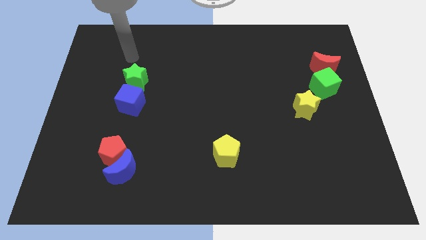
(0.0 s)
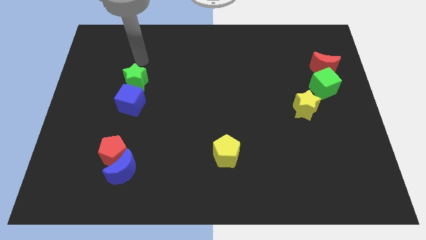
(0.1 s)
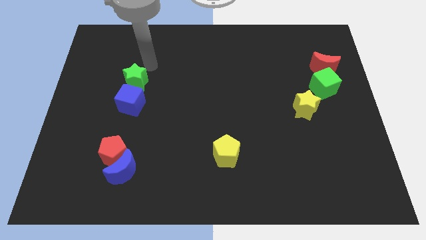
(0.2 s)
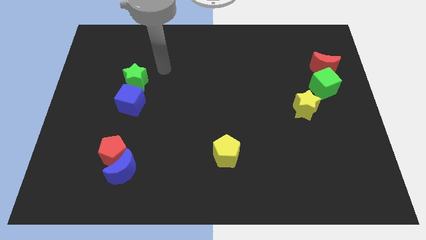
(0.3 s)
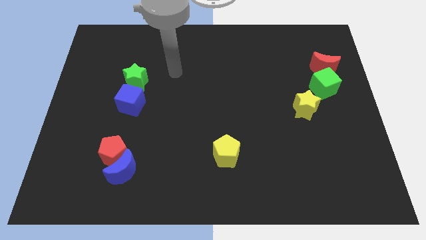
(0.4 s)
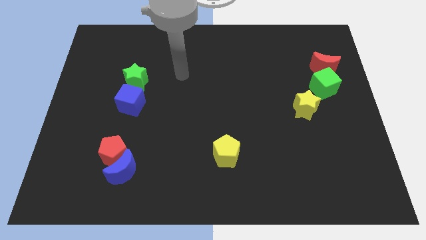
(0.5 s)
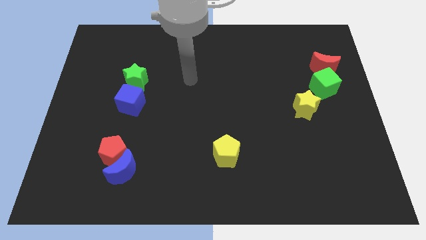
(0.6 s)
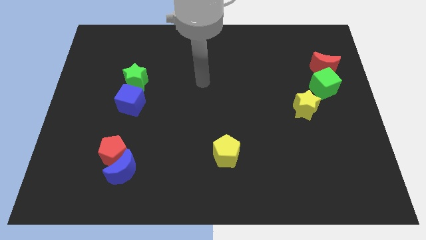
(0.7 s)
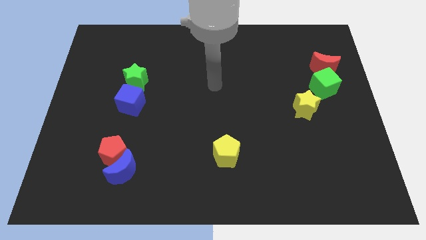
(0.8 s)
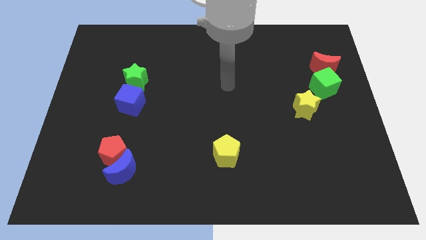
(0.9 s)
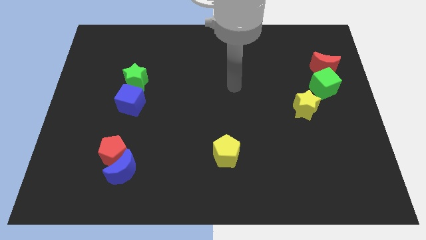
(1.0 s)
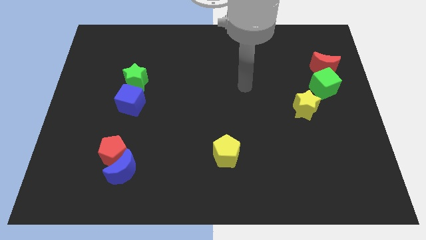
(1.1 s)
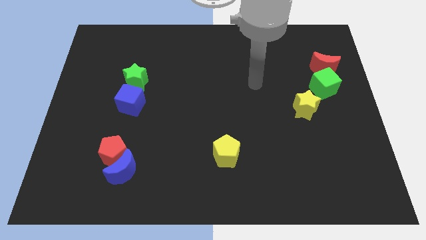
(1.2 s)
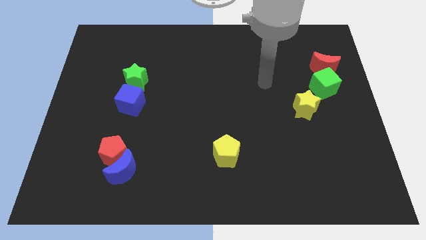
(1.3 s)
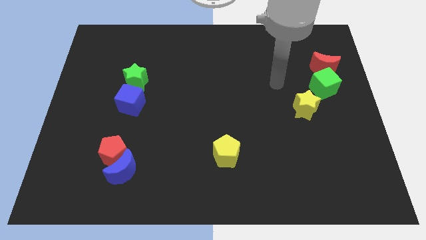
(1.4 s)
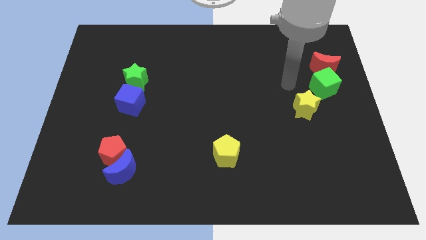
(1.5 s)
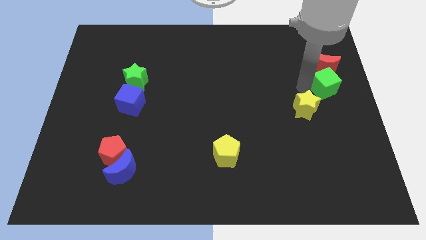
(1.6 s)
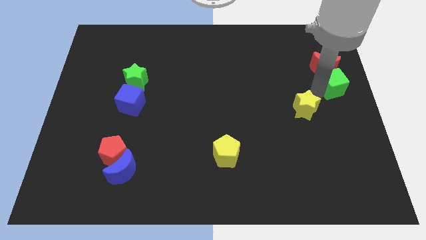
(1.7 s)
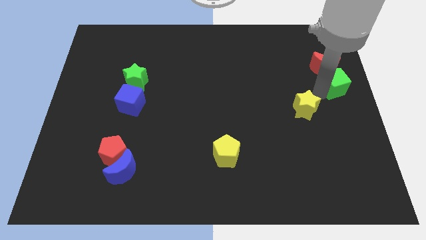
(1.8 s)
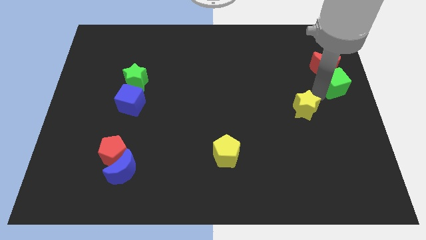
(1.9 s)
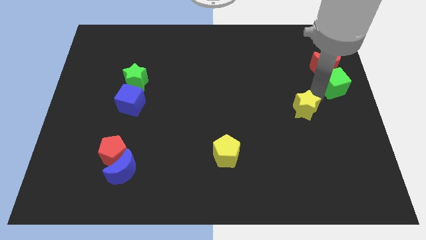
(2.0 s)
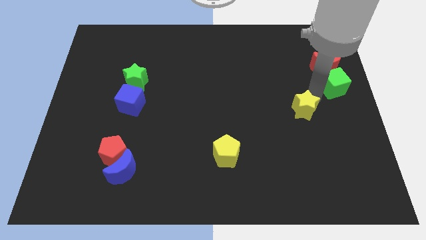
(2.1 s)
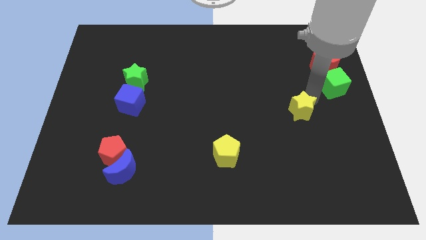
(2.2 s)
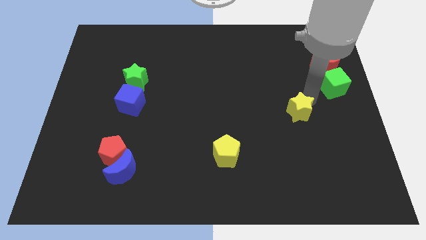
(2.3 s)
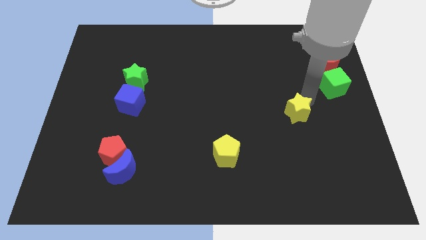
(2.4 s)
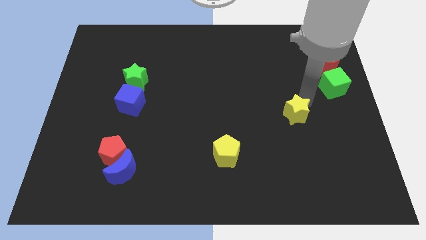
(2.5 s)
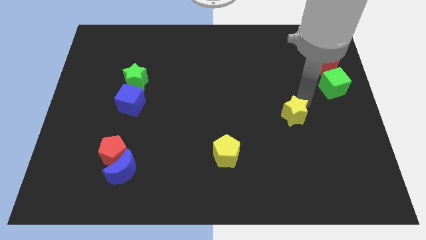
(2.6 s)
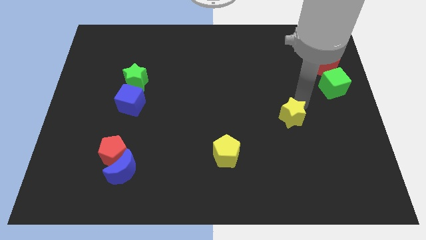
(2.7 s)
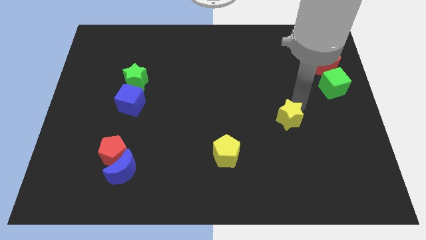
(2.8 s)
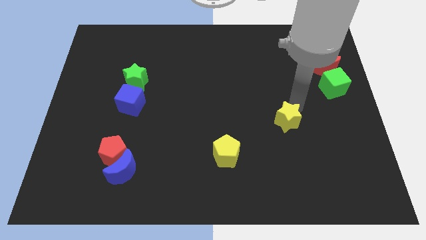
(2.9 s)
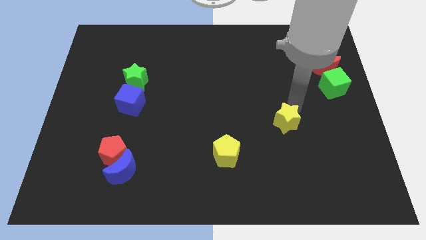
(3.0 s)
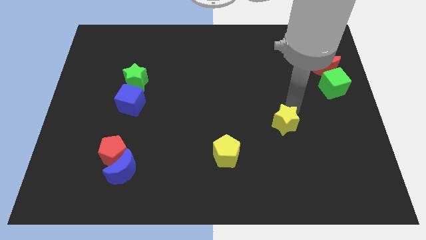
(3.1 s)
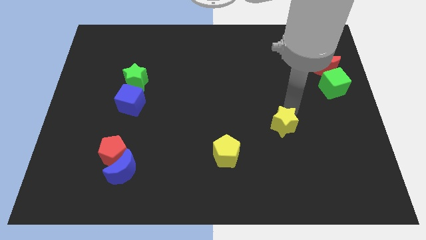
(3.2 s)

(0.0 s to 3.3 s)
push the yellow star down and left diagonally a little

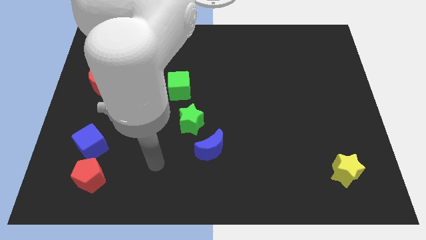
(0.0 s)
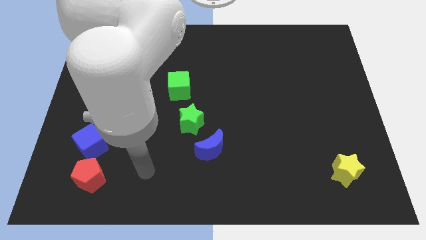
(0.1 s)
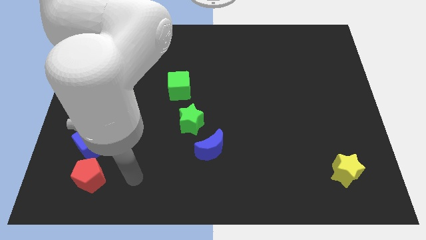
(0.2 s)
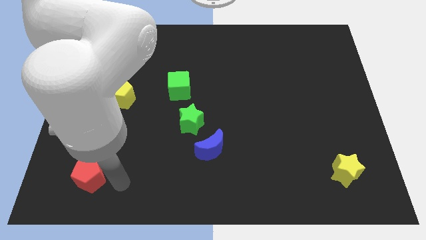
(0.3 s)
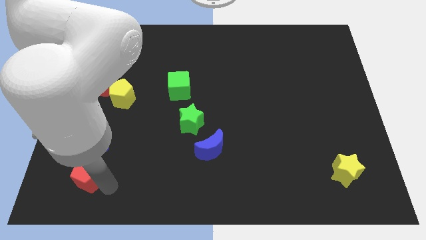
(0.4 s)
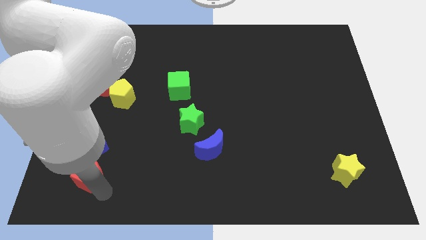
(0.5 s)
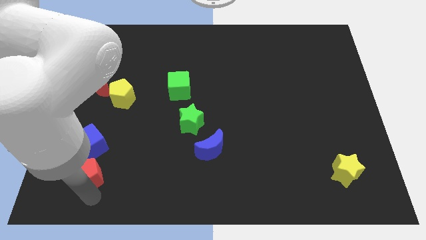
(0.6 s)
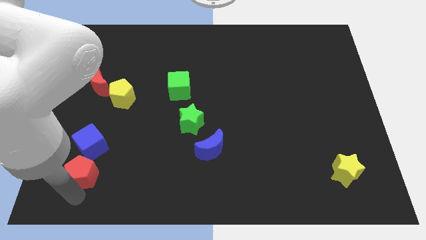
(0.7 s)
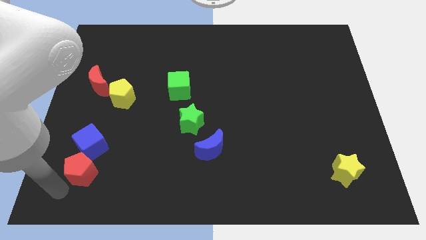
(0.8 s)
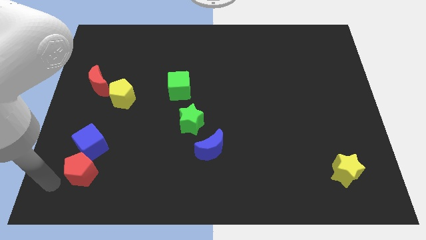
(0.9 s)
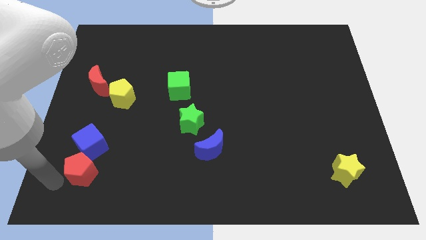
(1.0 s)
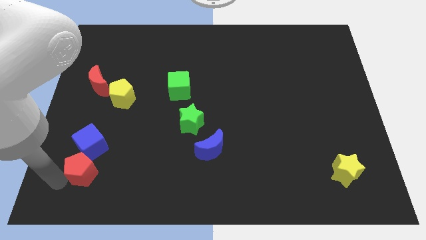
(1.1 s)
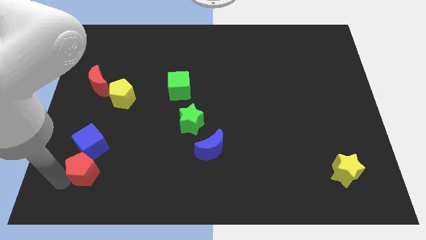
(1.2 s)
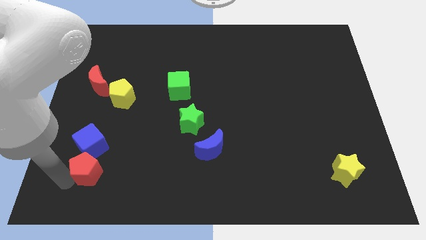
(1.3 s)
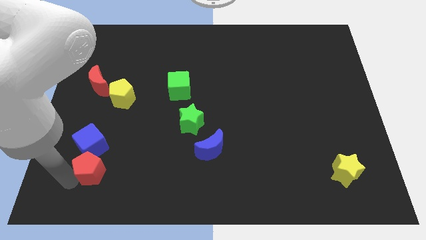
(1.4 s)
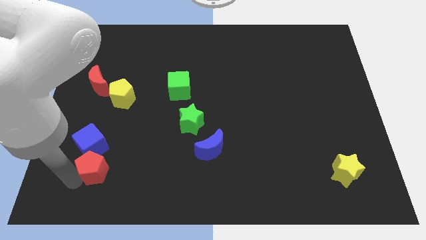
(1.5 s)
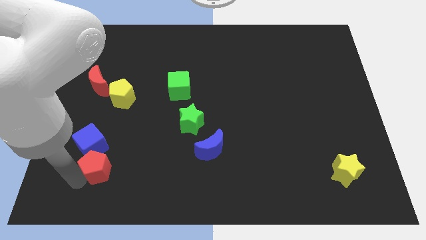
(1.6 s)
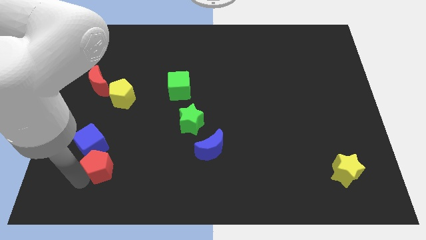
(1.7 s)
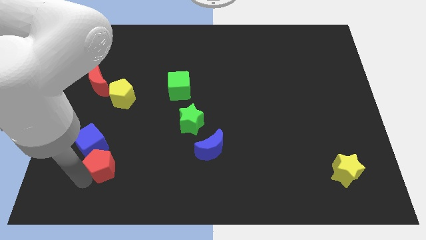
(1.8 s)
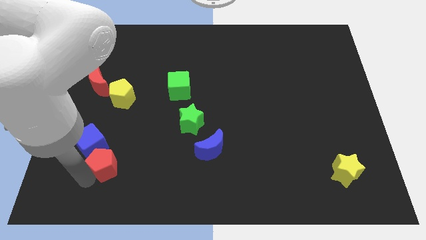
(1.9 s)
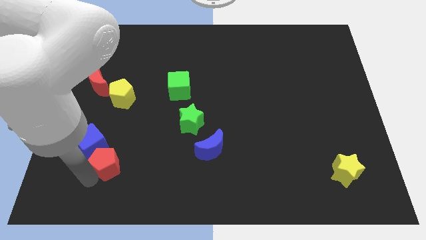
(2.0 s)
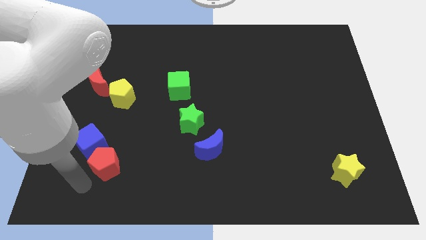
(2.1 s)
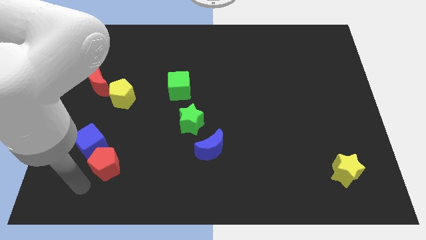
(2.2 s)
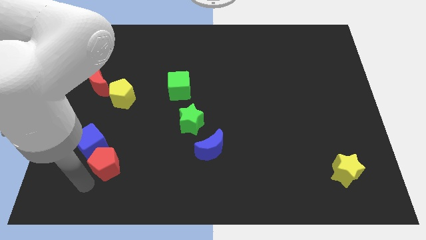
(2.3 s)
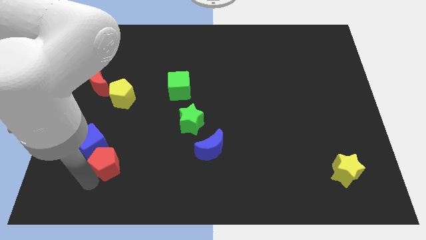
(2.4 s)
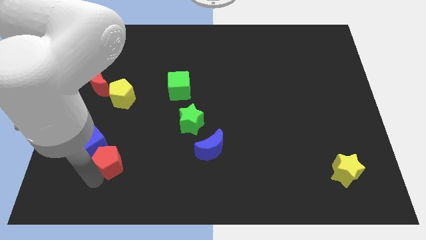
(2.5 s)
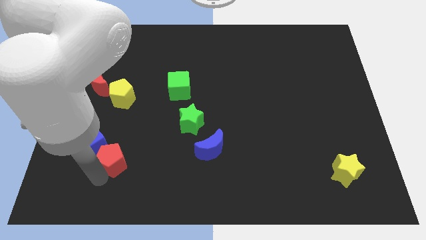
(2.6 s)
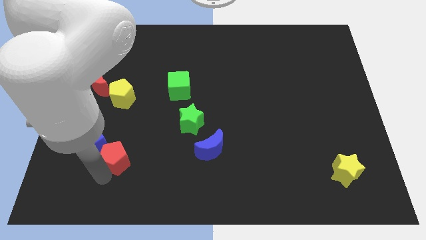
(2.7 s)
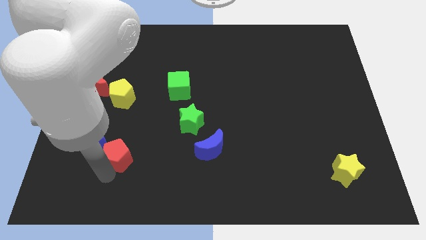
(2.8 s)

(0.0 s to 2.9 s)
slightly move the red pentagon up and then to the right

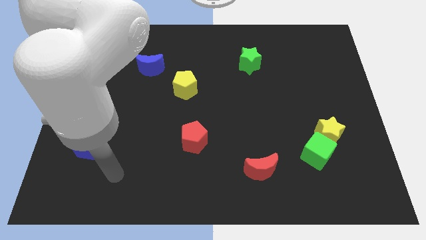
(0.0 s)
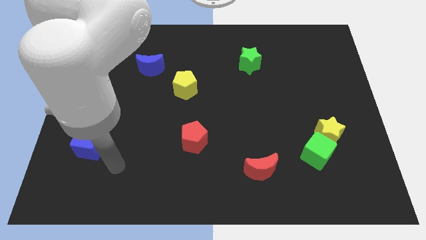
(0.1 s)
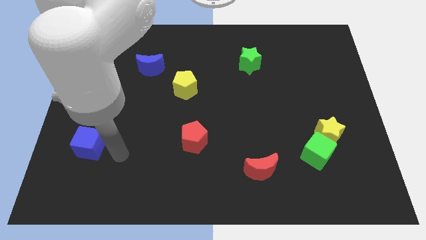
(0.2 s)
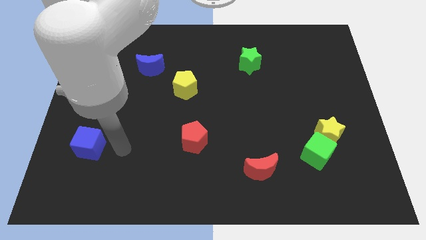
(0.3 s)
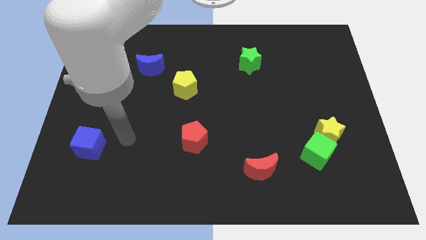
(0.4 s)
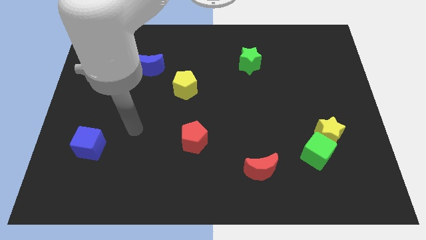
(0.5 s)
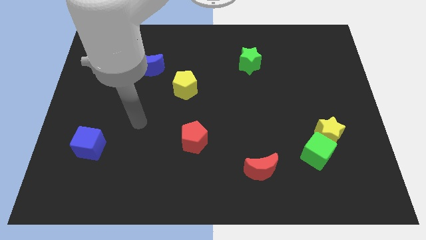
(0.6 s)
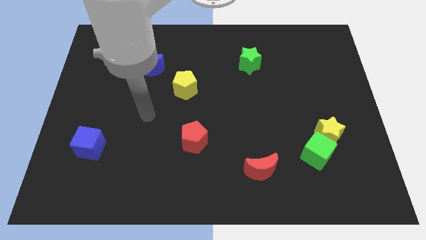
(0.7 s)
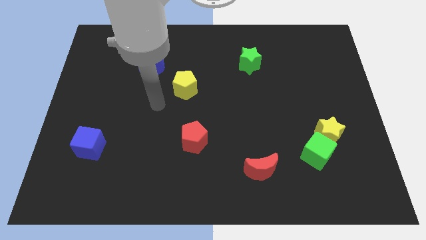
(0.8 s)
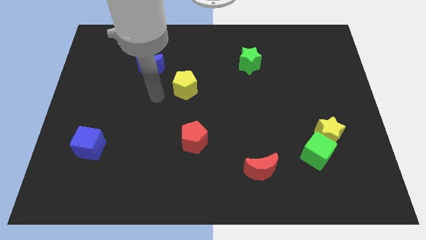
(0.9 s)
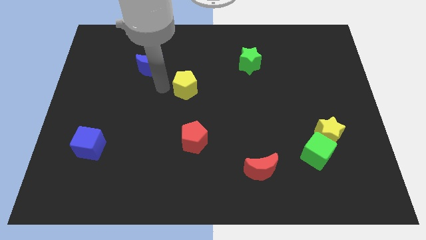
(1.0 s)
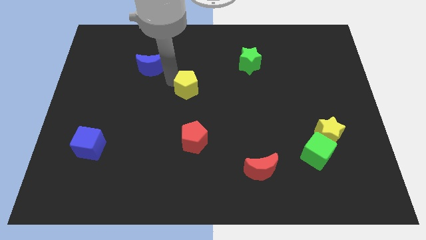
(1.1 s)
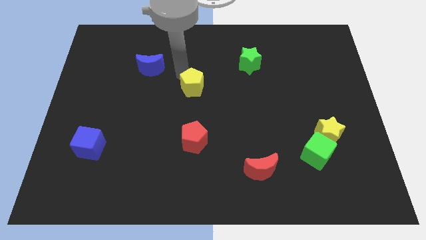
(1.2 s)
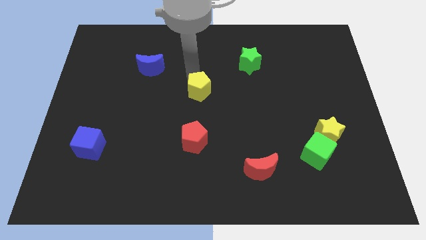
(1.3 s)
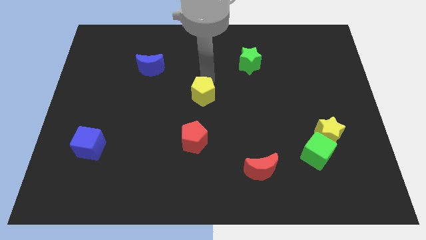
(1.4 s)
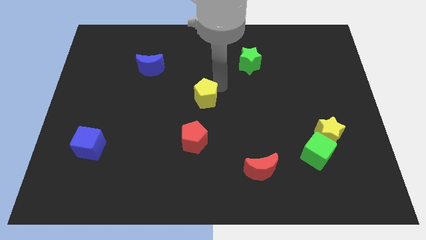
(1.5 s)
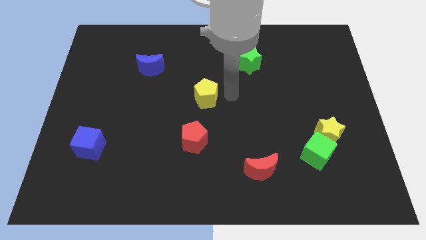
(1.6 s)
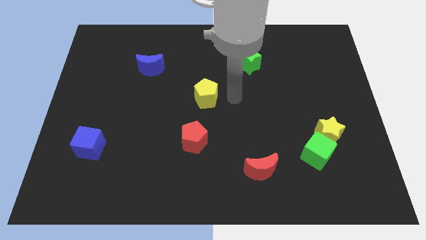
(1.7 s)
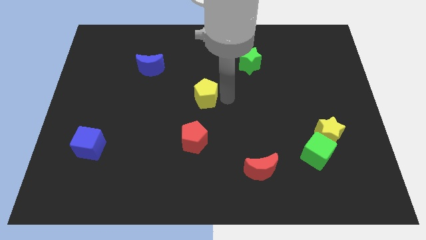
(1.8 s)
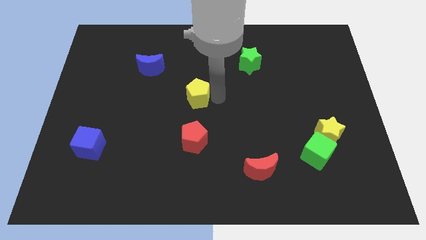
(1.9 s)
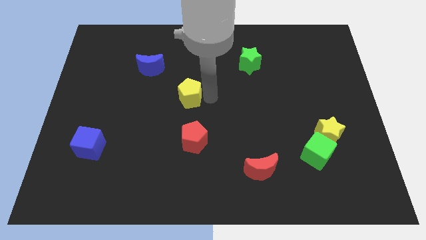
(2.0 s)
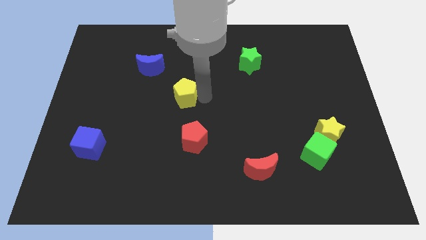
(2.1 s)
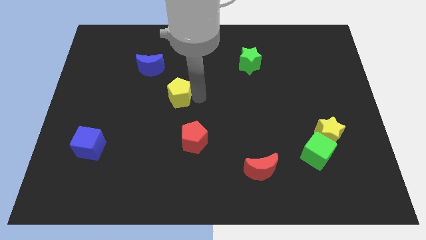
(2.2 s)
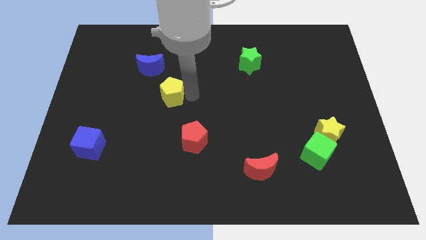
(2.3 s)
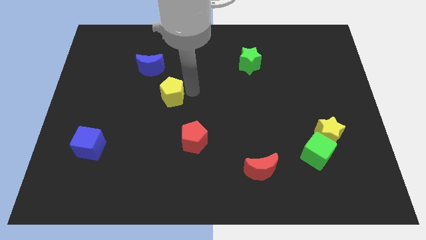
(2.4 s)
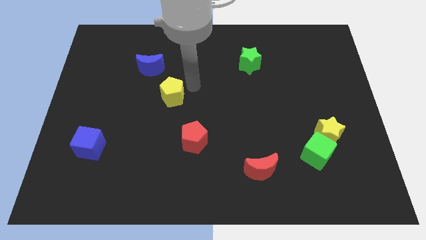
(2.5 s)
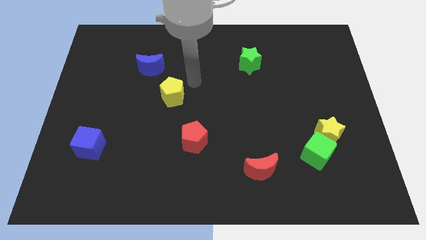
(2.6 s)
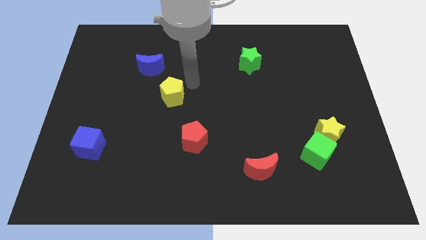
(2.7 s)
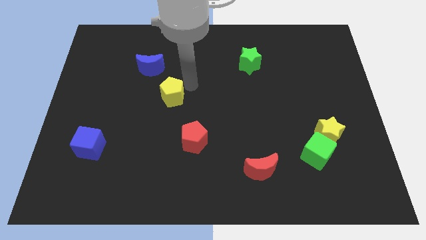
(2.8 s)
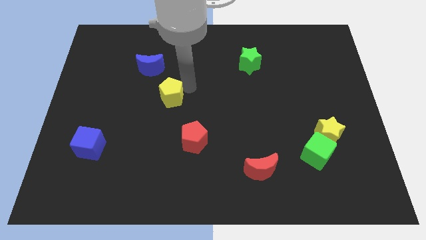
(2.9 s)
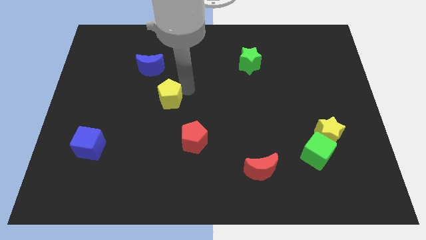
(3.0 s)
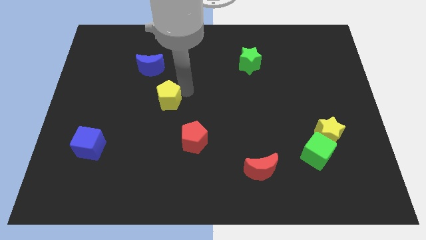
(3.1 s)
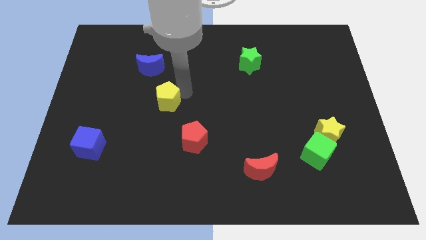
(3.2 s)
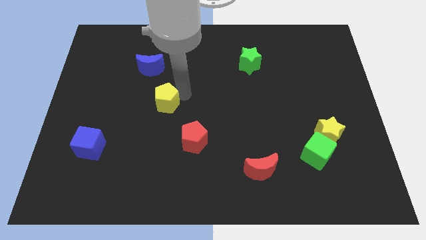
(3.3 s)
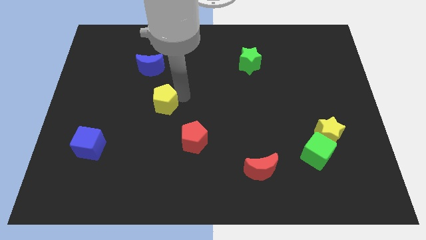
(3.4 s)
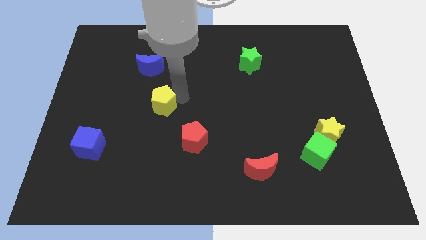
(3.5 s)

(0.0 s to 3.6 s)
slide the yellow pentagon down and left diagonally a bit
